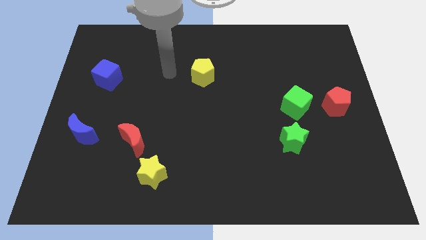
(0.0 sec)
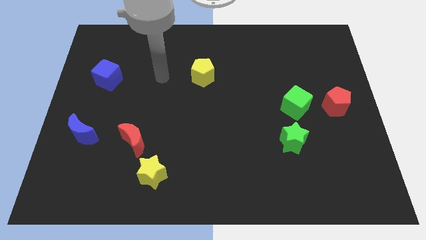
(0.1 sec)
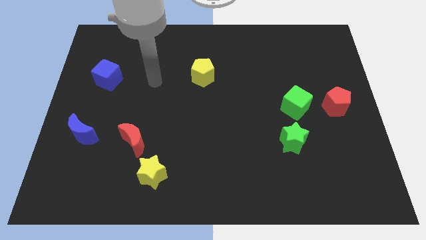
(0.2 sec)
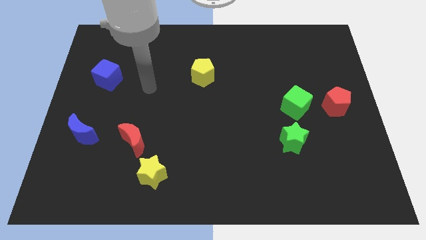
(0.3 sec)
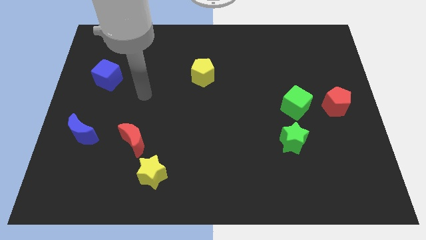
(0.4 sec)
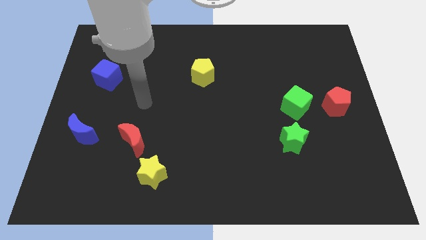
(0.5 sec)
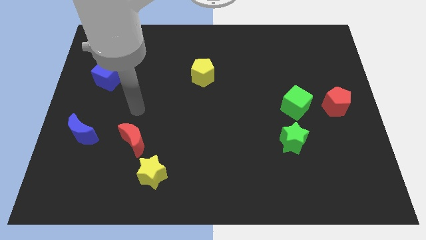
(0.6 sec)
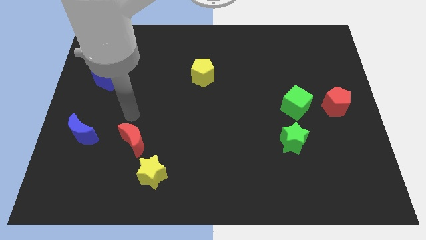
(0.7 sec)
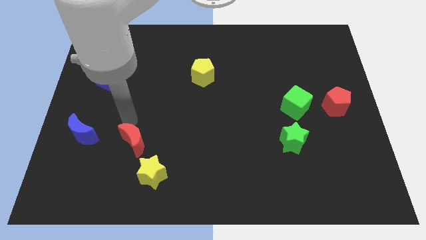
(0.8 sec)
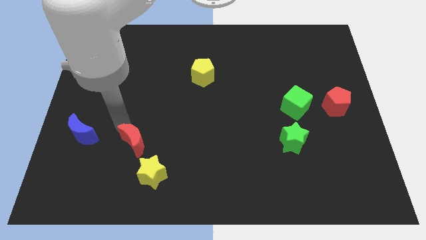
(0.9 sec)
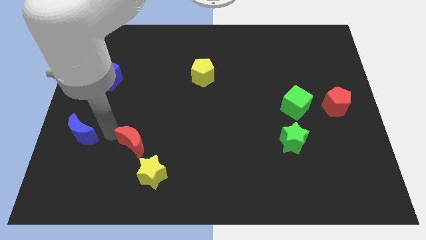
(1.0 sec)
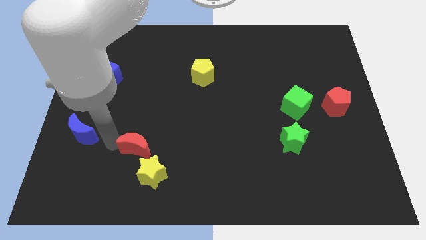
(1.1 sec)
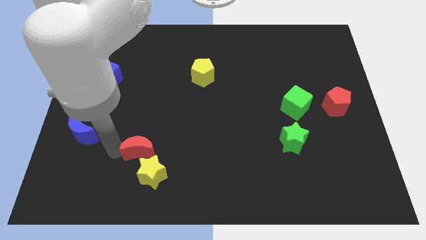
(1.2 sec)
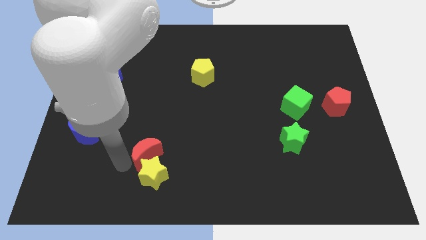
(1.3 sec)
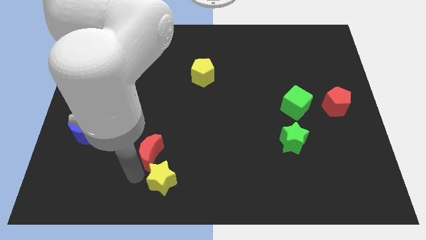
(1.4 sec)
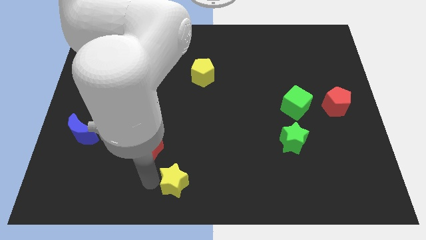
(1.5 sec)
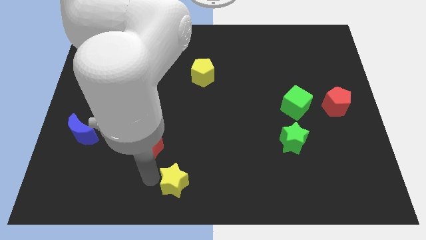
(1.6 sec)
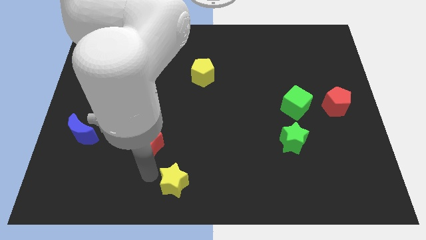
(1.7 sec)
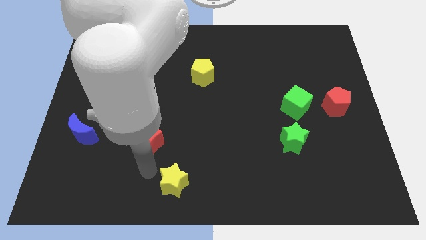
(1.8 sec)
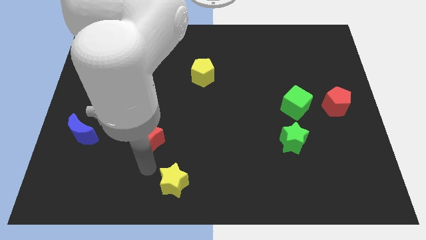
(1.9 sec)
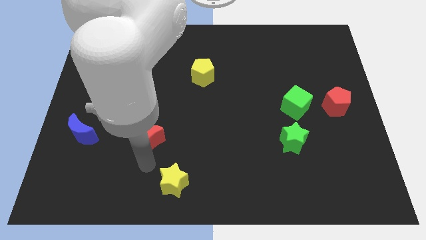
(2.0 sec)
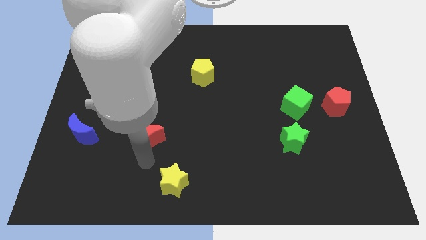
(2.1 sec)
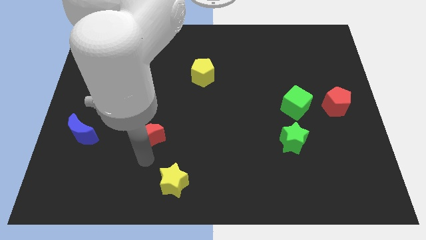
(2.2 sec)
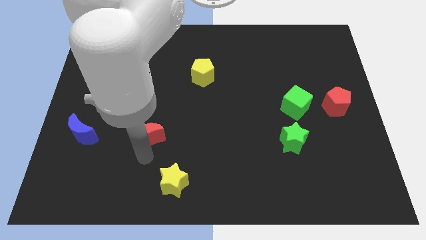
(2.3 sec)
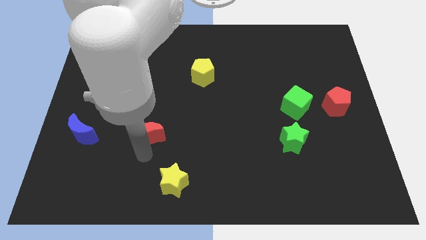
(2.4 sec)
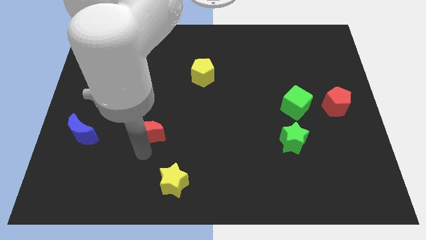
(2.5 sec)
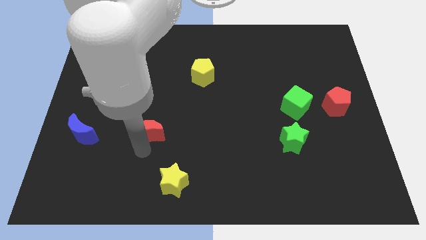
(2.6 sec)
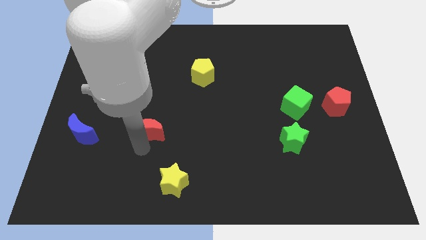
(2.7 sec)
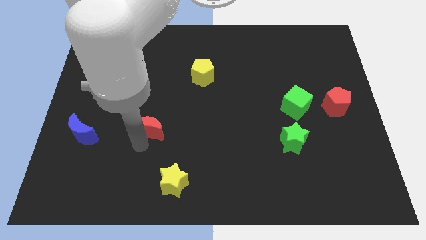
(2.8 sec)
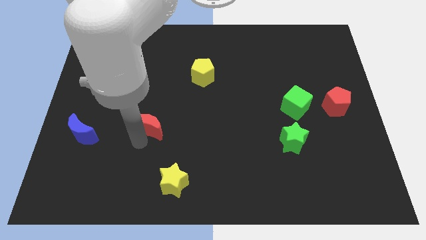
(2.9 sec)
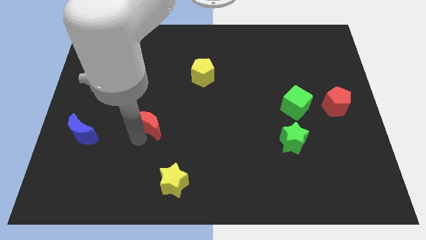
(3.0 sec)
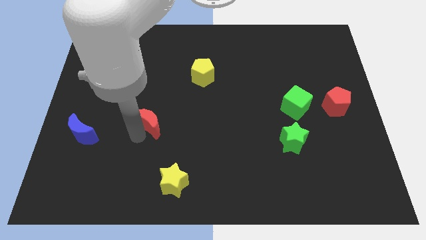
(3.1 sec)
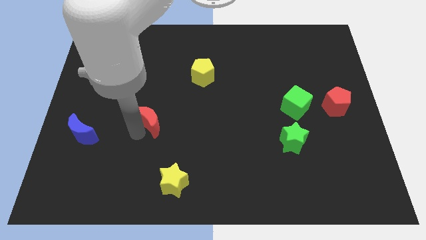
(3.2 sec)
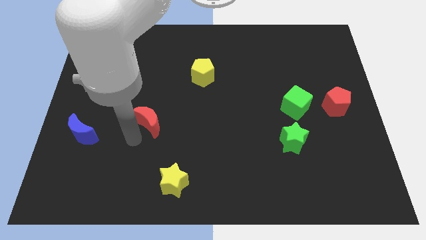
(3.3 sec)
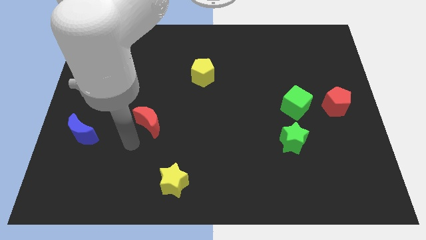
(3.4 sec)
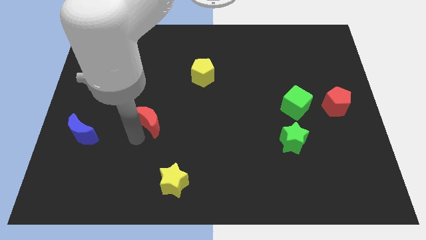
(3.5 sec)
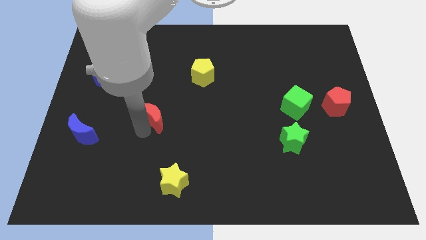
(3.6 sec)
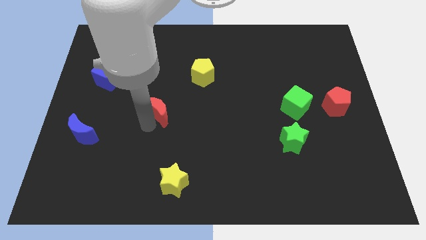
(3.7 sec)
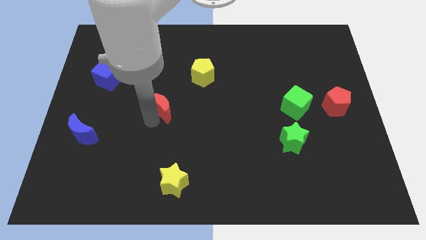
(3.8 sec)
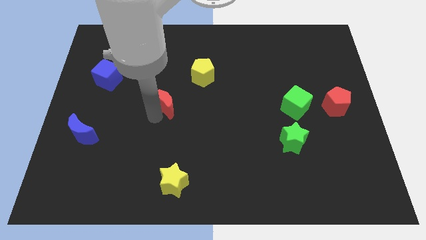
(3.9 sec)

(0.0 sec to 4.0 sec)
push the red moon diagonally down and to the left of the yellow pentagon

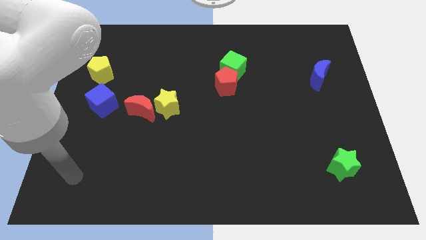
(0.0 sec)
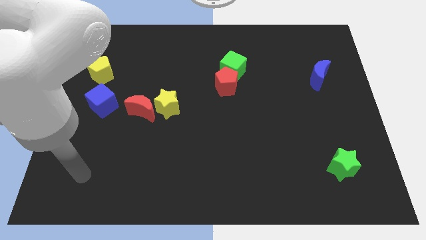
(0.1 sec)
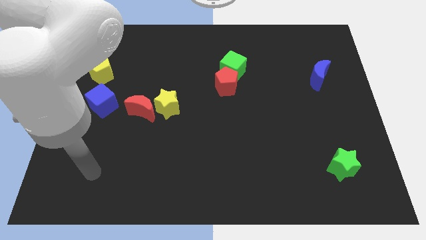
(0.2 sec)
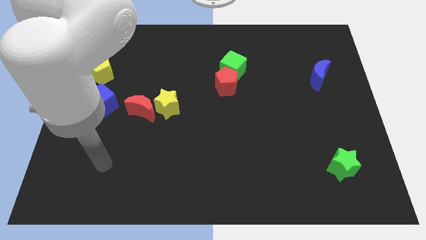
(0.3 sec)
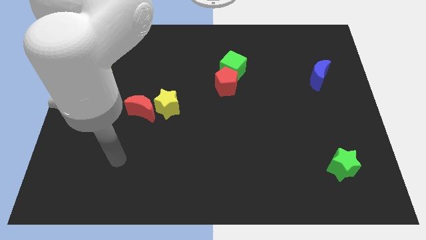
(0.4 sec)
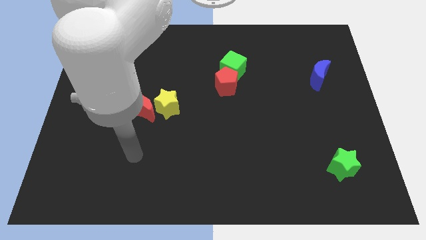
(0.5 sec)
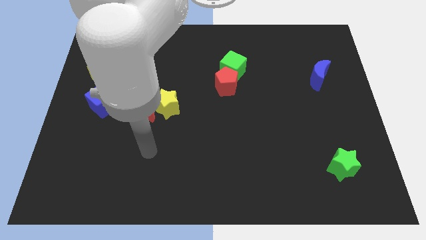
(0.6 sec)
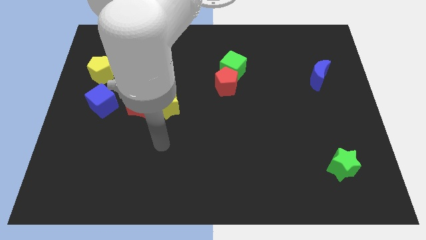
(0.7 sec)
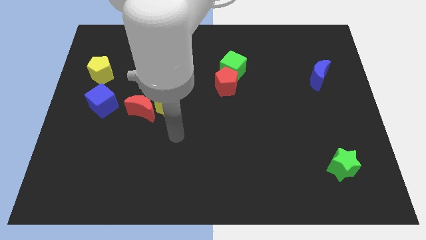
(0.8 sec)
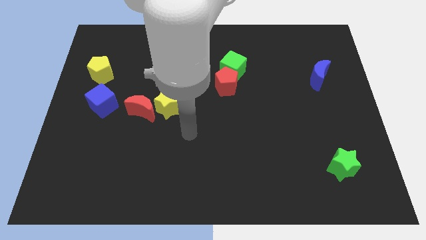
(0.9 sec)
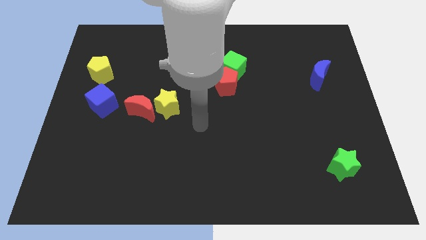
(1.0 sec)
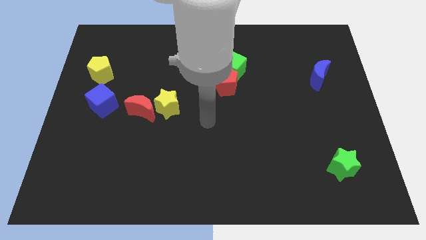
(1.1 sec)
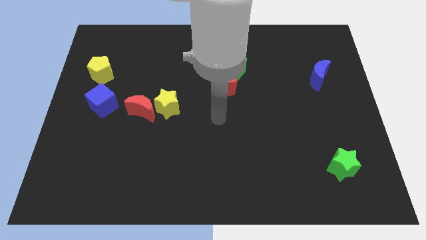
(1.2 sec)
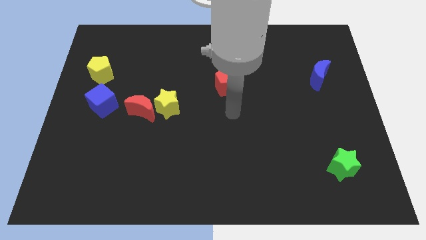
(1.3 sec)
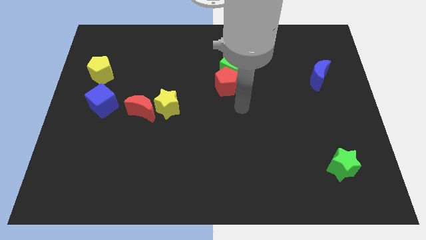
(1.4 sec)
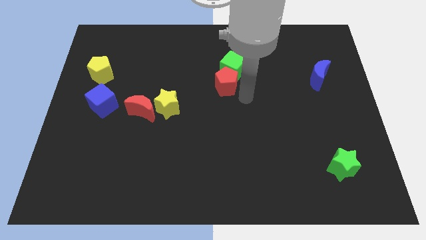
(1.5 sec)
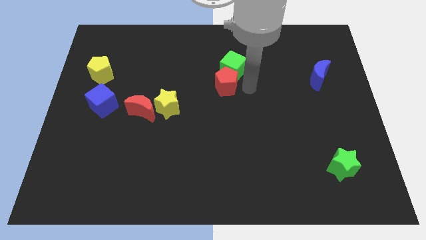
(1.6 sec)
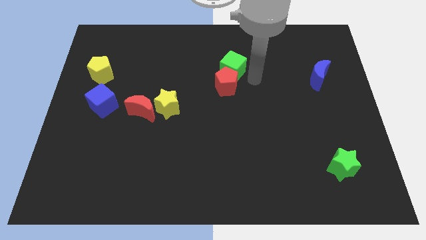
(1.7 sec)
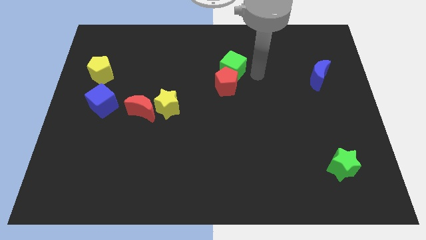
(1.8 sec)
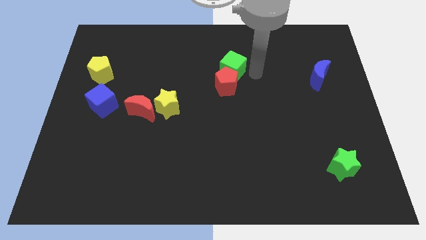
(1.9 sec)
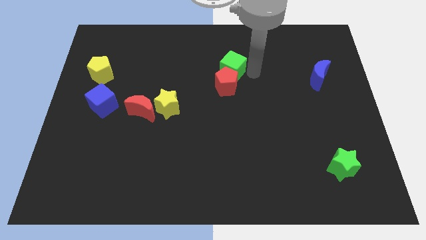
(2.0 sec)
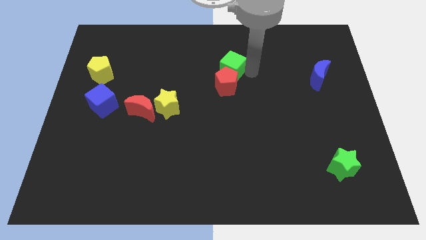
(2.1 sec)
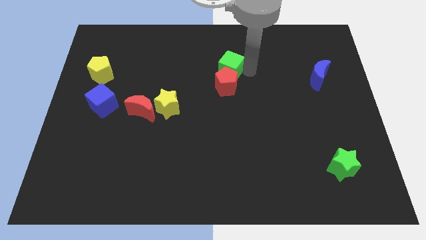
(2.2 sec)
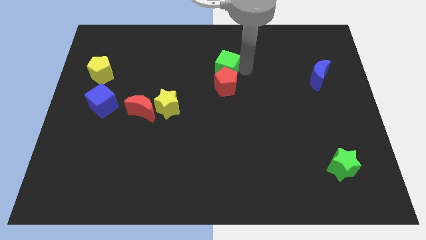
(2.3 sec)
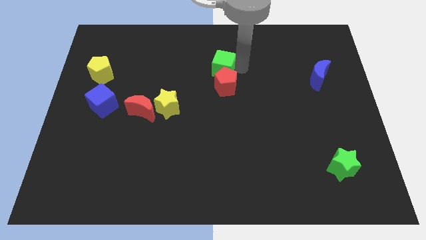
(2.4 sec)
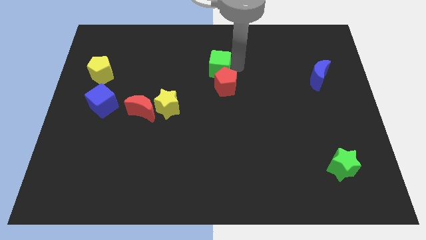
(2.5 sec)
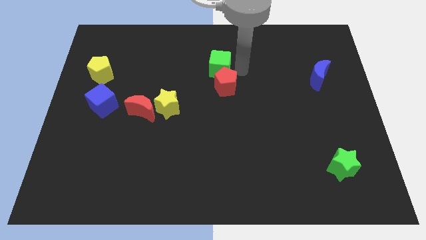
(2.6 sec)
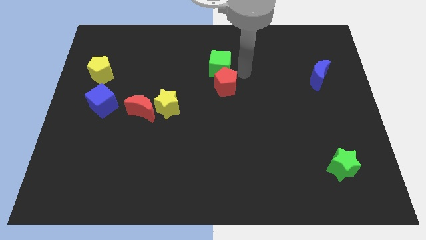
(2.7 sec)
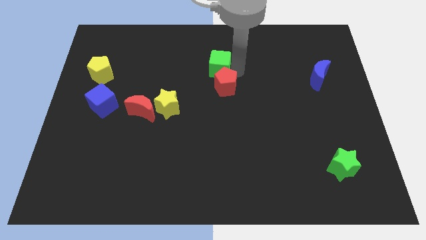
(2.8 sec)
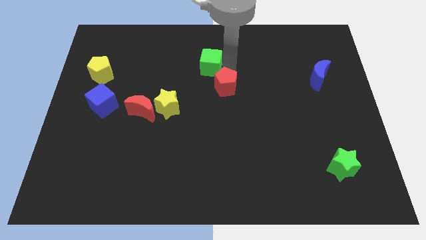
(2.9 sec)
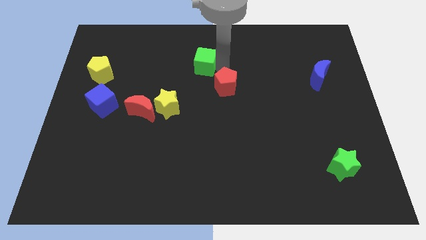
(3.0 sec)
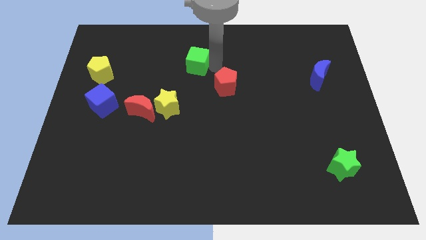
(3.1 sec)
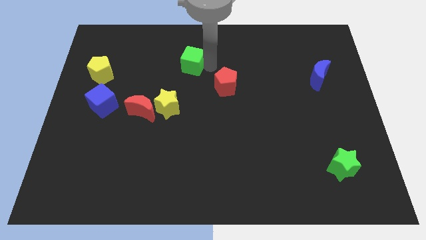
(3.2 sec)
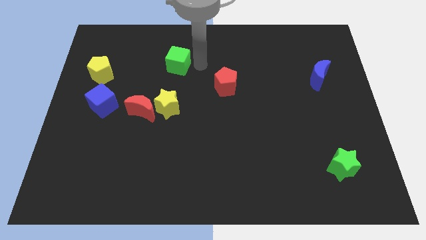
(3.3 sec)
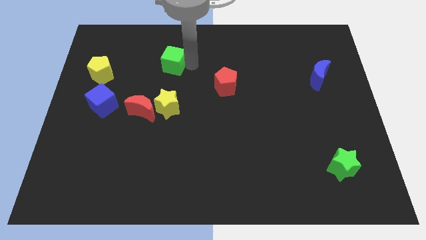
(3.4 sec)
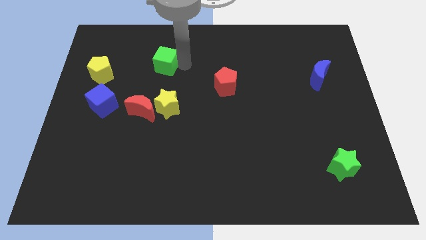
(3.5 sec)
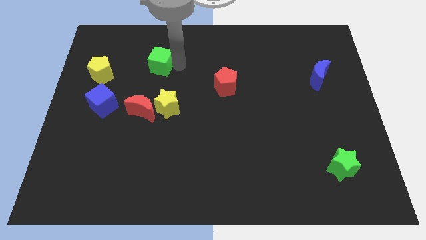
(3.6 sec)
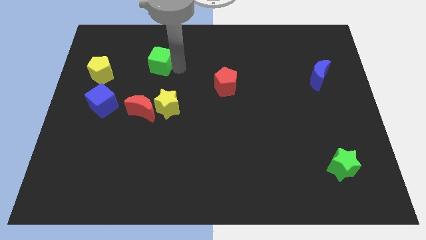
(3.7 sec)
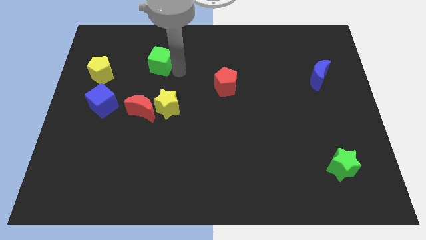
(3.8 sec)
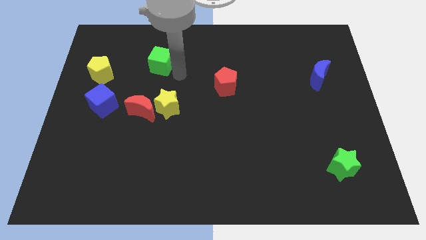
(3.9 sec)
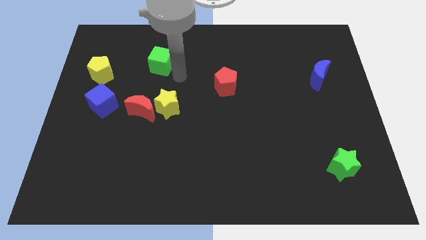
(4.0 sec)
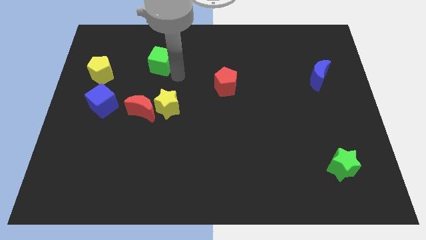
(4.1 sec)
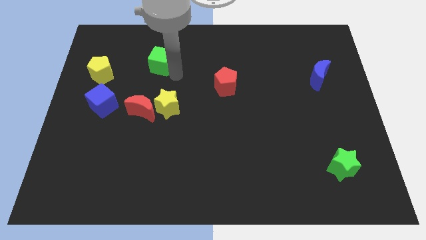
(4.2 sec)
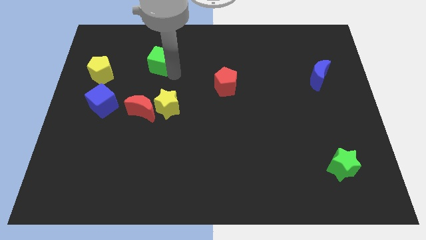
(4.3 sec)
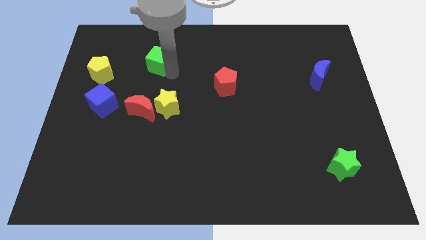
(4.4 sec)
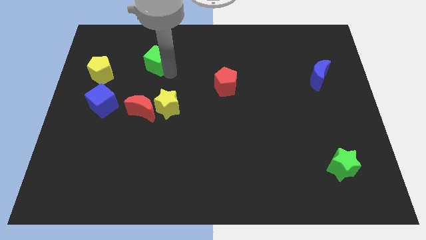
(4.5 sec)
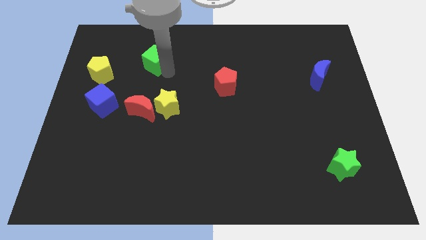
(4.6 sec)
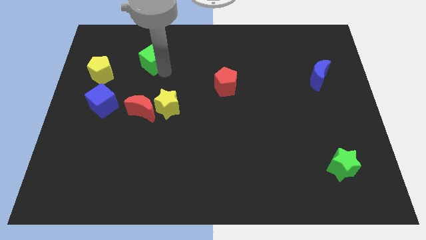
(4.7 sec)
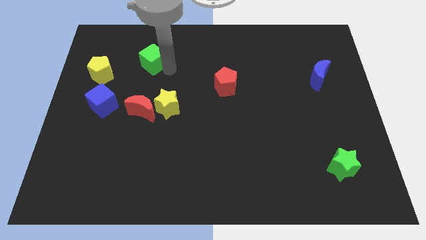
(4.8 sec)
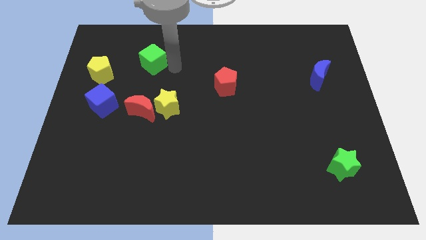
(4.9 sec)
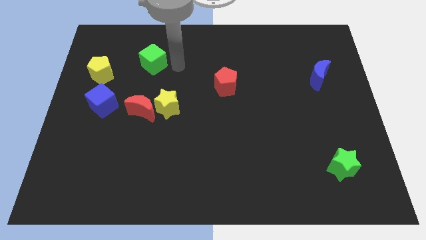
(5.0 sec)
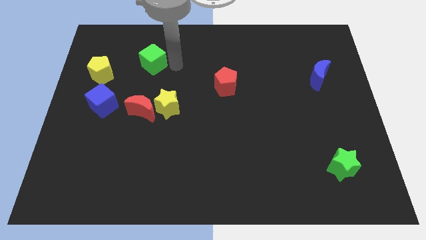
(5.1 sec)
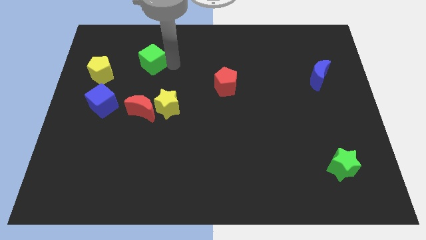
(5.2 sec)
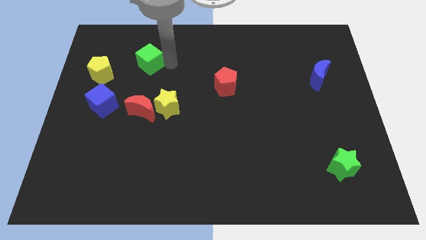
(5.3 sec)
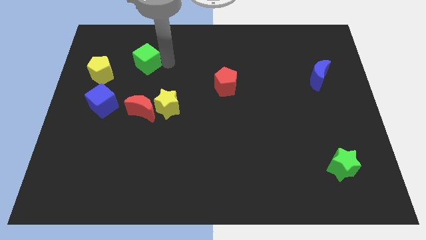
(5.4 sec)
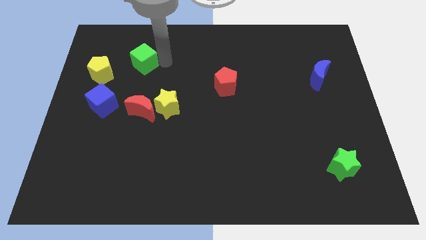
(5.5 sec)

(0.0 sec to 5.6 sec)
put the green cube to the top right side of the yellow pentagon
